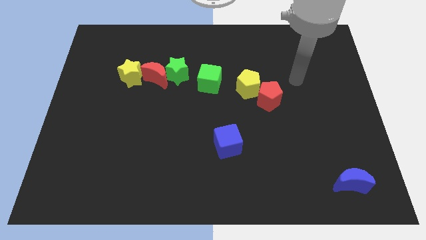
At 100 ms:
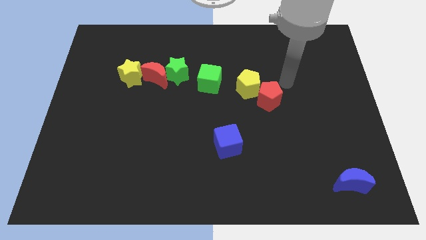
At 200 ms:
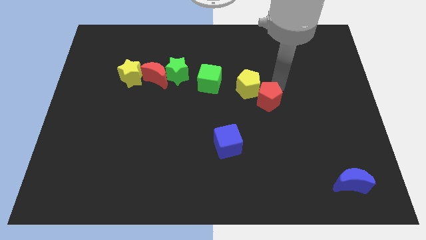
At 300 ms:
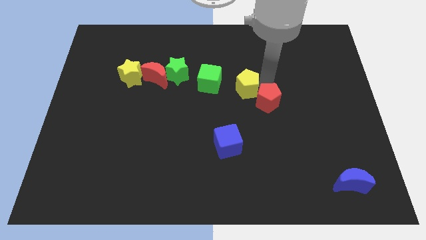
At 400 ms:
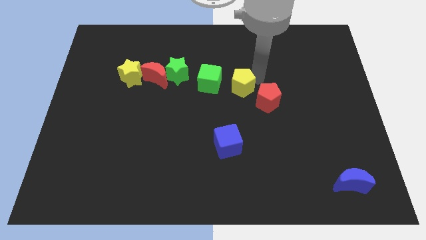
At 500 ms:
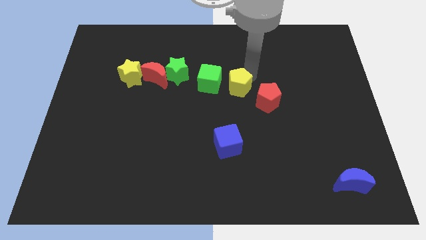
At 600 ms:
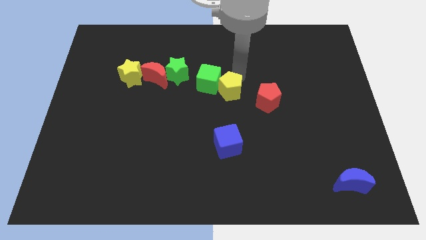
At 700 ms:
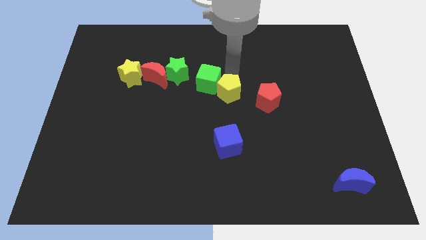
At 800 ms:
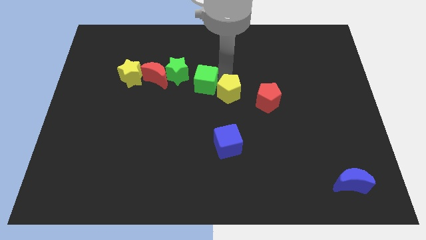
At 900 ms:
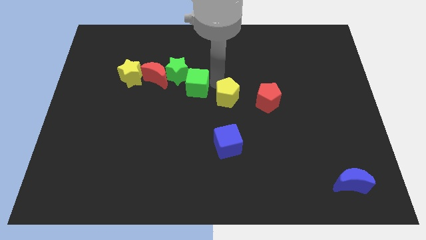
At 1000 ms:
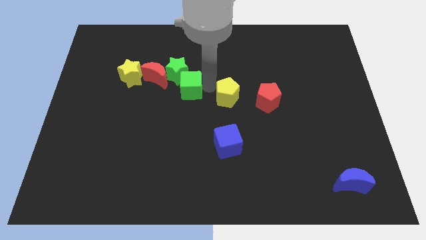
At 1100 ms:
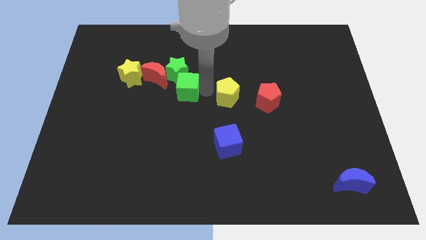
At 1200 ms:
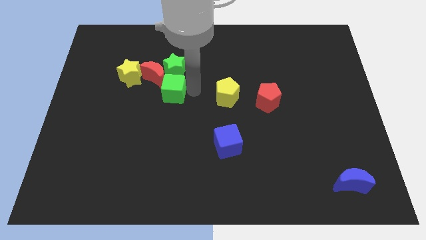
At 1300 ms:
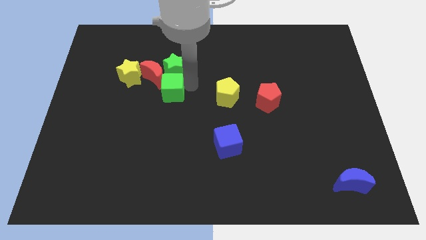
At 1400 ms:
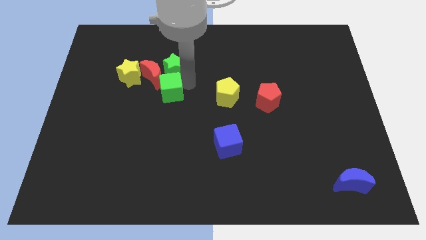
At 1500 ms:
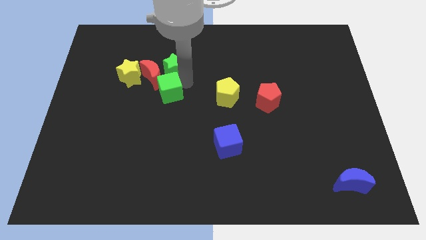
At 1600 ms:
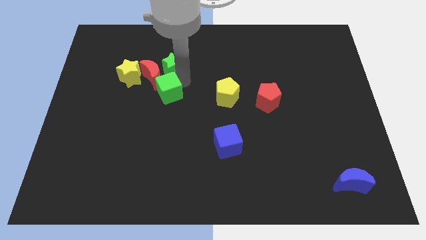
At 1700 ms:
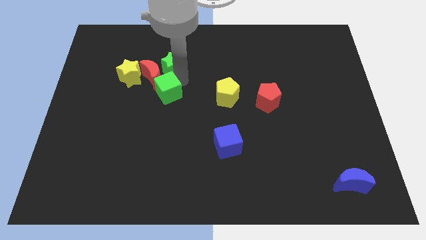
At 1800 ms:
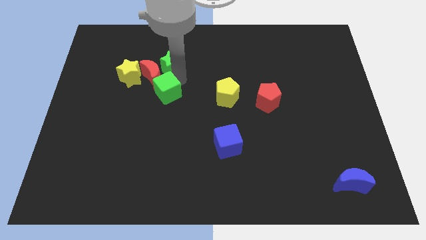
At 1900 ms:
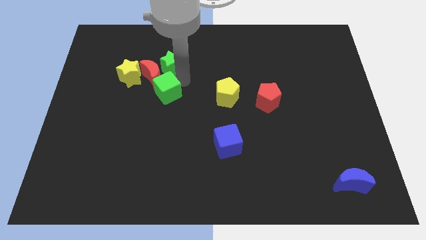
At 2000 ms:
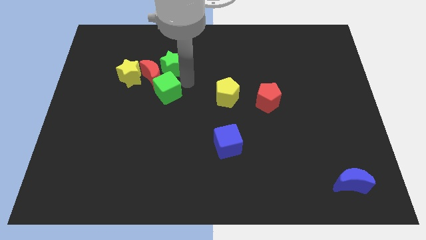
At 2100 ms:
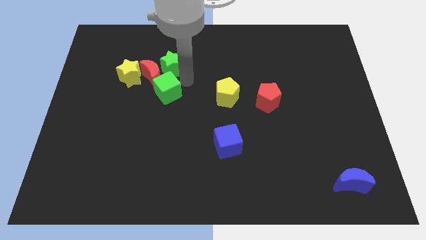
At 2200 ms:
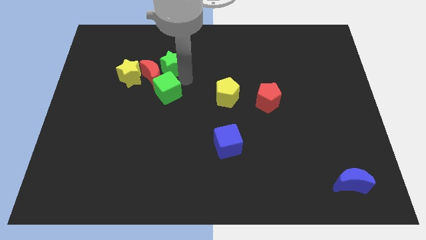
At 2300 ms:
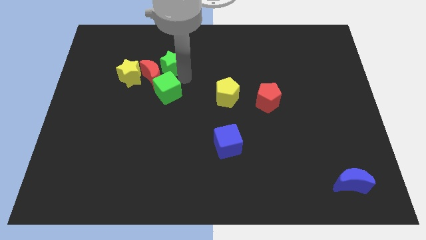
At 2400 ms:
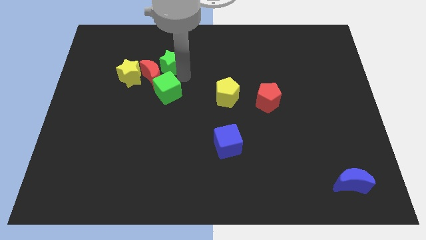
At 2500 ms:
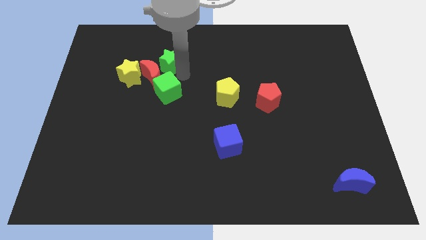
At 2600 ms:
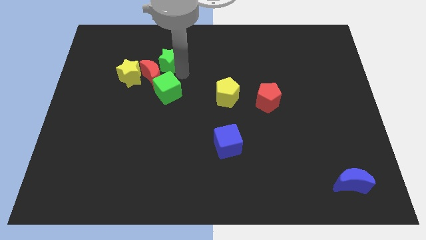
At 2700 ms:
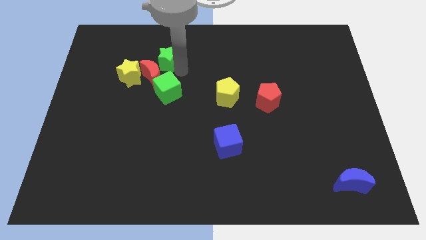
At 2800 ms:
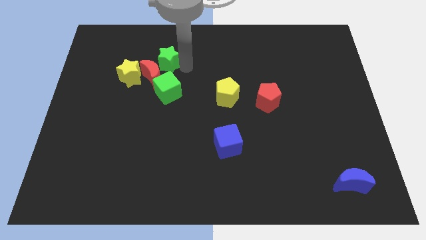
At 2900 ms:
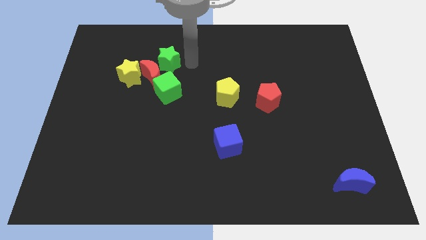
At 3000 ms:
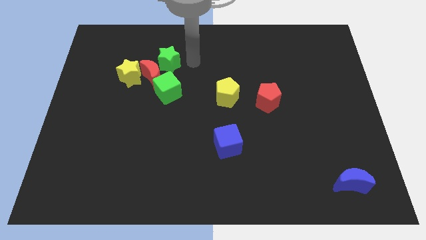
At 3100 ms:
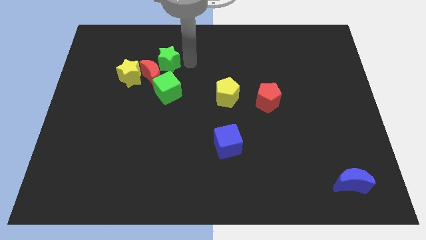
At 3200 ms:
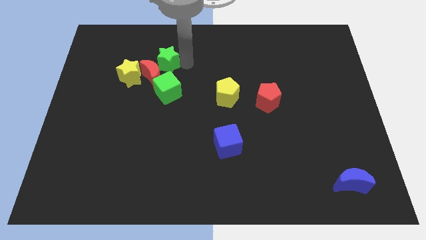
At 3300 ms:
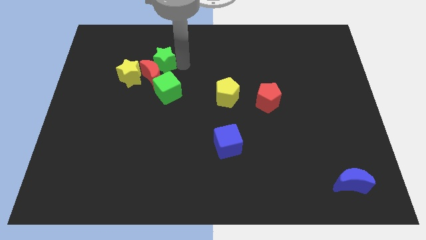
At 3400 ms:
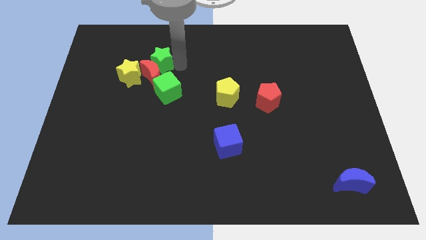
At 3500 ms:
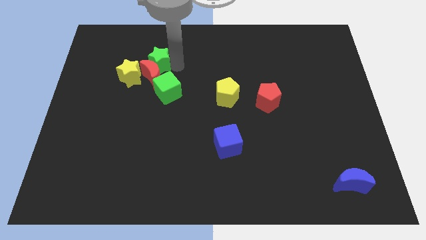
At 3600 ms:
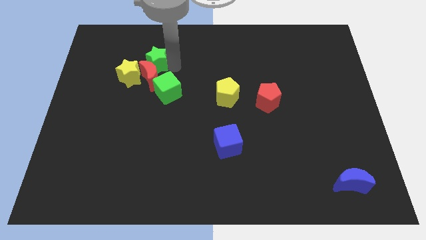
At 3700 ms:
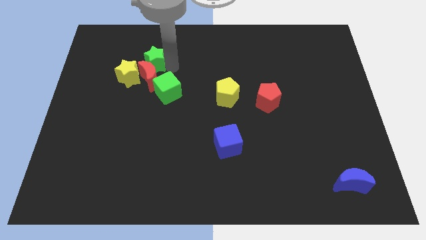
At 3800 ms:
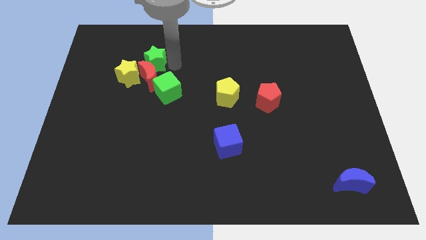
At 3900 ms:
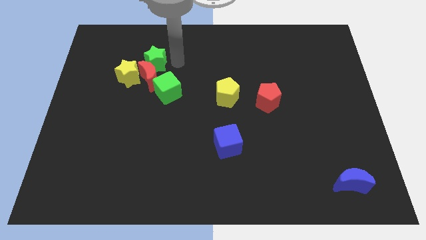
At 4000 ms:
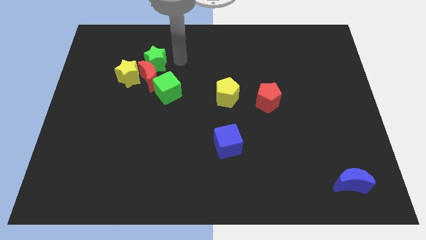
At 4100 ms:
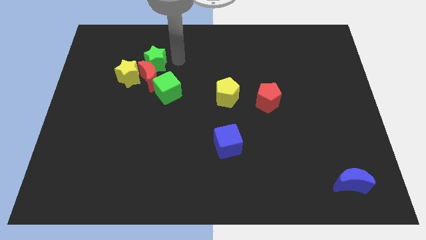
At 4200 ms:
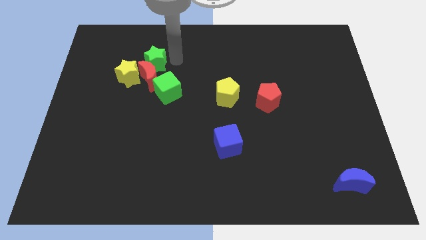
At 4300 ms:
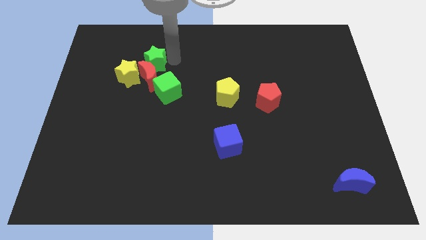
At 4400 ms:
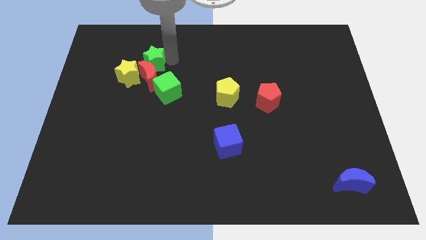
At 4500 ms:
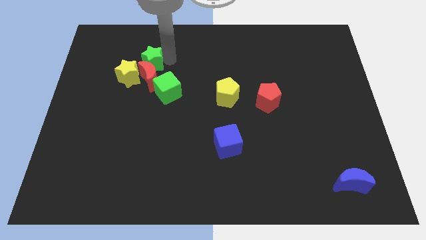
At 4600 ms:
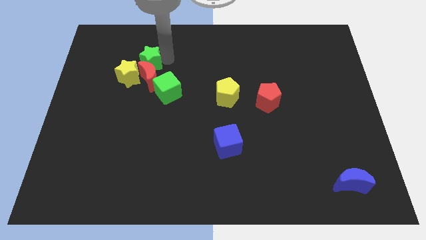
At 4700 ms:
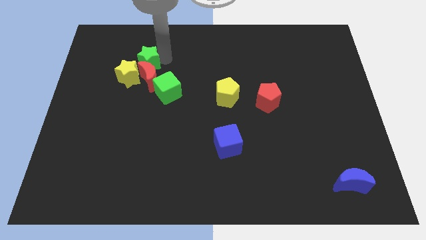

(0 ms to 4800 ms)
push the green star to the left slightly

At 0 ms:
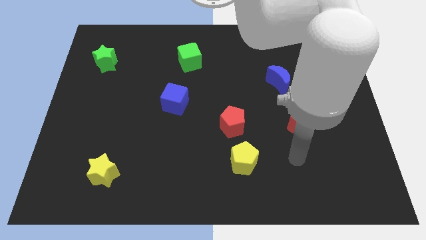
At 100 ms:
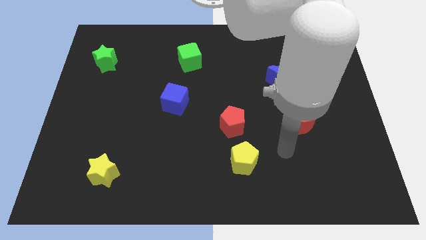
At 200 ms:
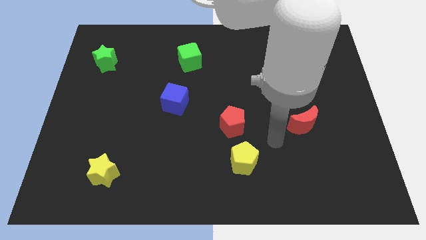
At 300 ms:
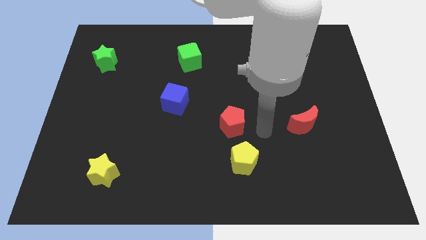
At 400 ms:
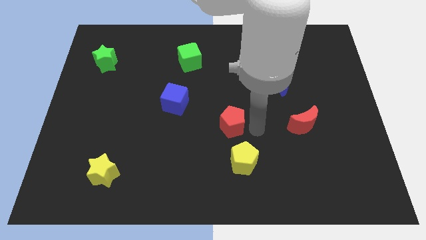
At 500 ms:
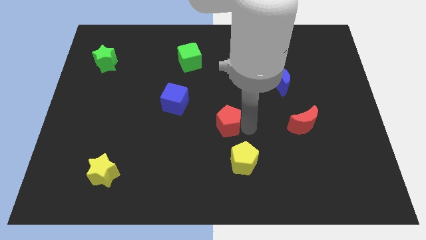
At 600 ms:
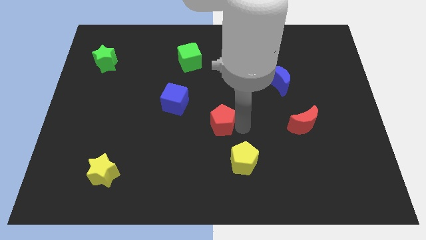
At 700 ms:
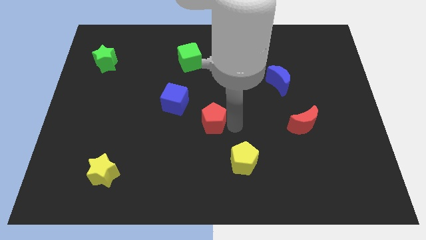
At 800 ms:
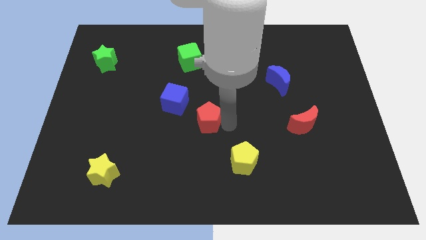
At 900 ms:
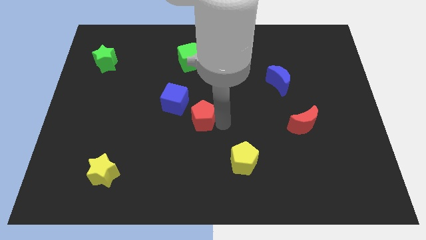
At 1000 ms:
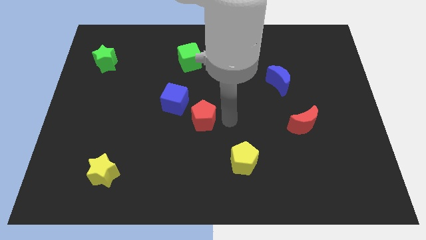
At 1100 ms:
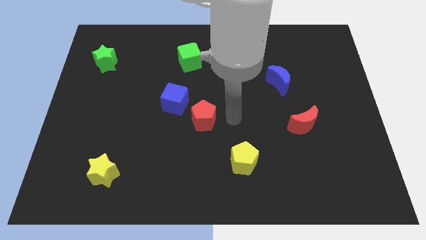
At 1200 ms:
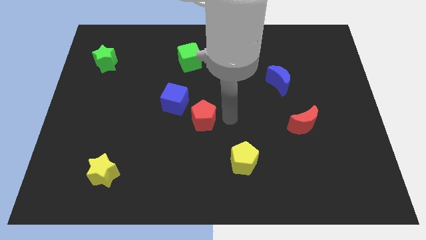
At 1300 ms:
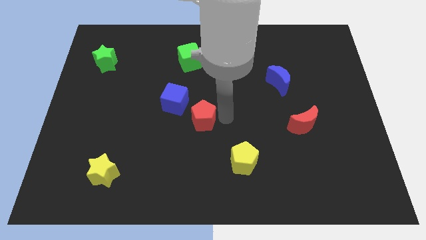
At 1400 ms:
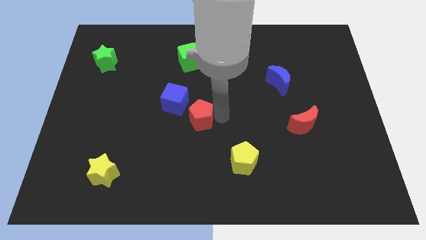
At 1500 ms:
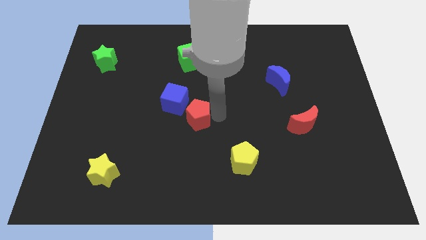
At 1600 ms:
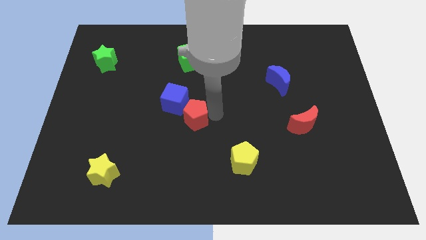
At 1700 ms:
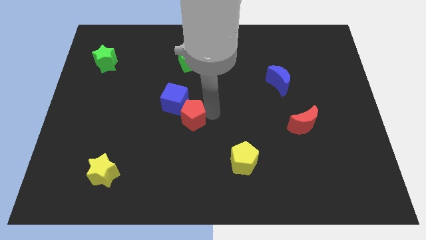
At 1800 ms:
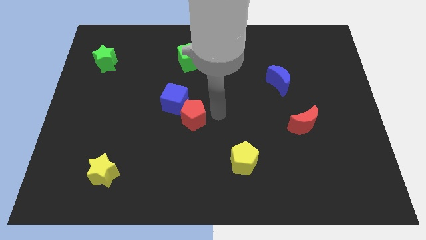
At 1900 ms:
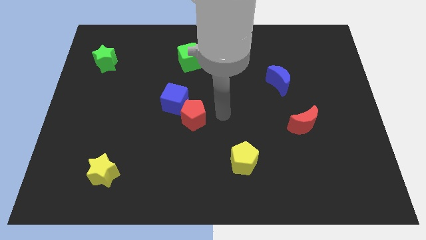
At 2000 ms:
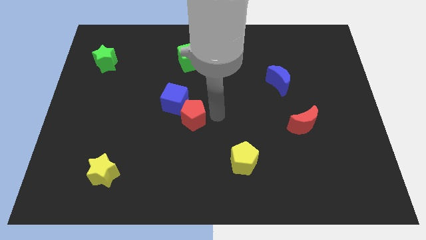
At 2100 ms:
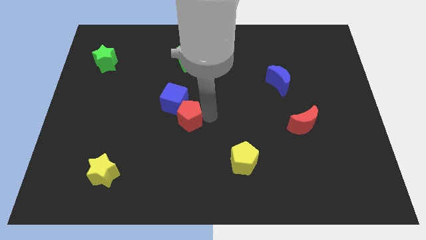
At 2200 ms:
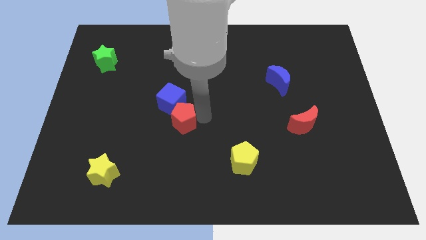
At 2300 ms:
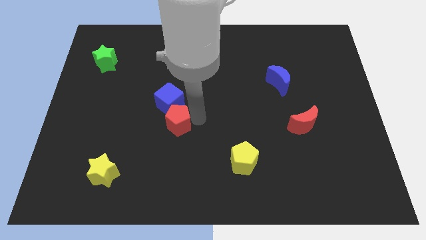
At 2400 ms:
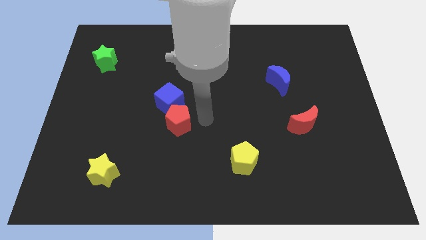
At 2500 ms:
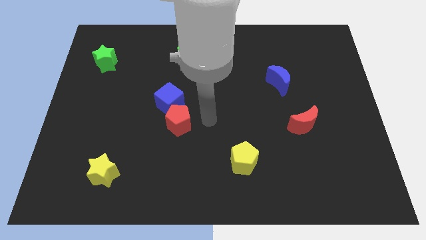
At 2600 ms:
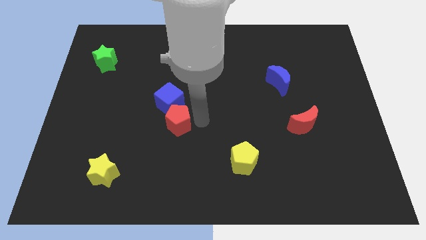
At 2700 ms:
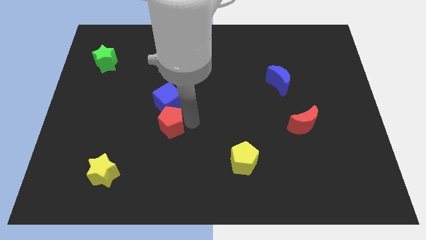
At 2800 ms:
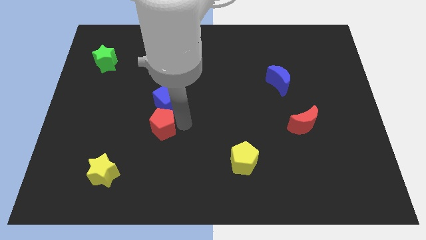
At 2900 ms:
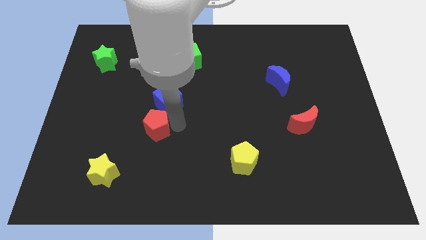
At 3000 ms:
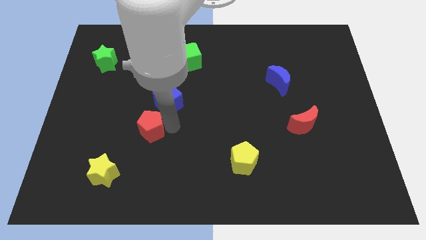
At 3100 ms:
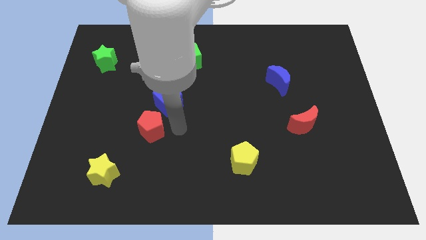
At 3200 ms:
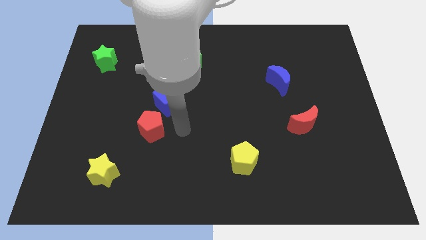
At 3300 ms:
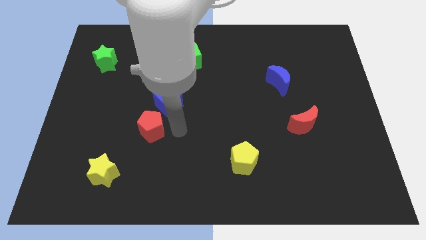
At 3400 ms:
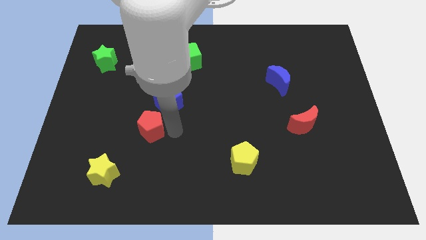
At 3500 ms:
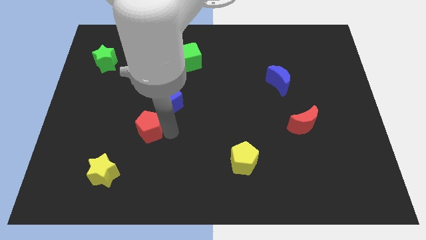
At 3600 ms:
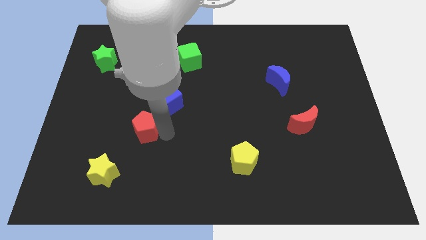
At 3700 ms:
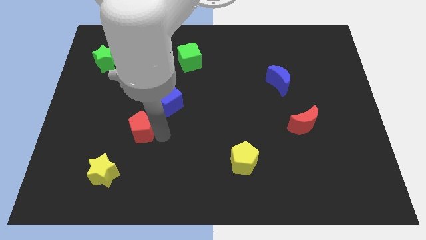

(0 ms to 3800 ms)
push the red pentagon to the left
